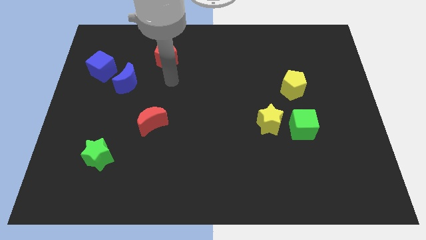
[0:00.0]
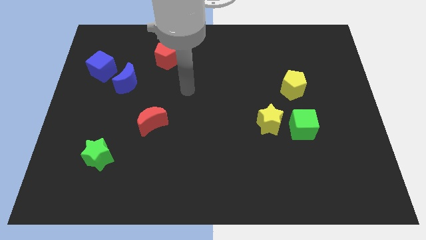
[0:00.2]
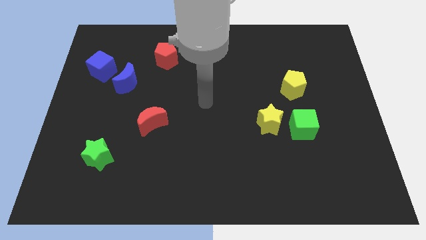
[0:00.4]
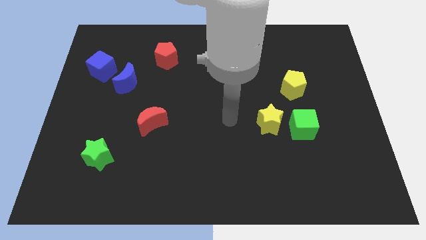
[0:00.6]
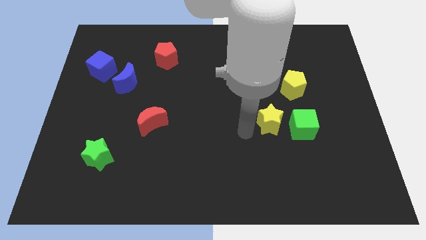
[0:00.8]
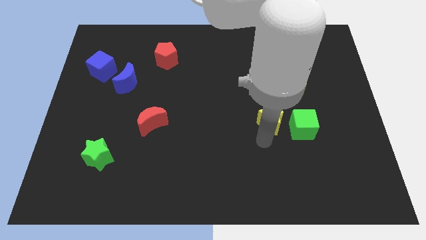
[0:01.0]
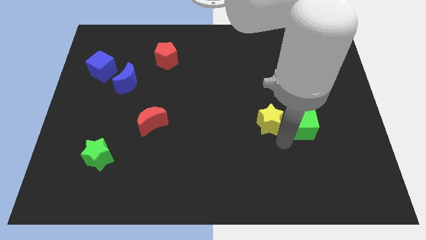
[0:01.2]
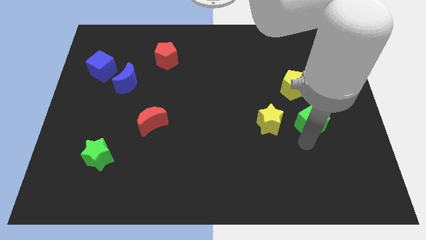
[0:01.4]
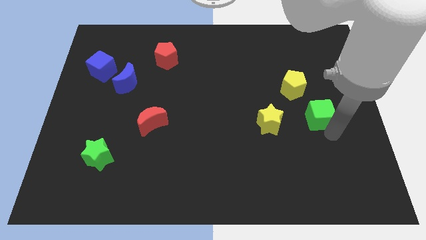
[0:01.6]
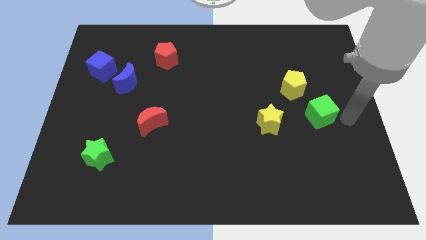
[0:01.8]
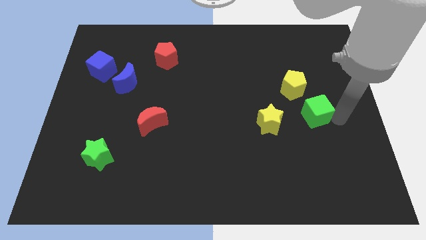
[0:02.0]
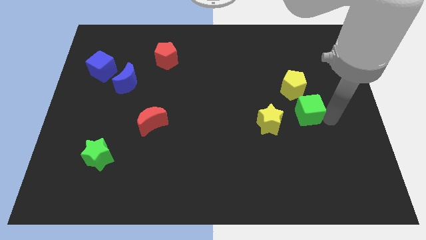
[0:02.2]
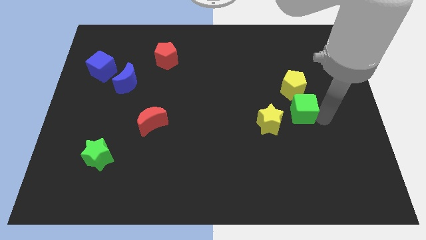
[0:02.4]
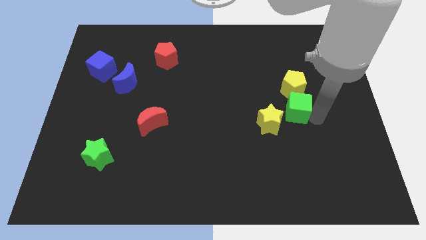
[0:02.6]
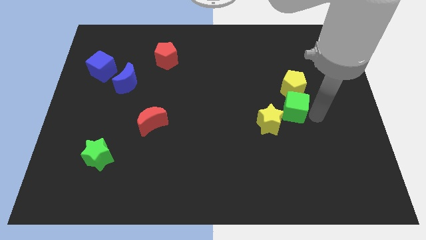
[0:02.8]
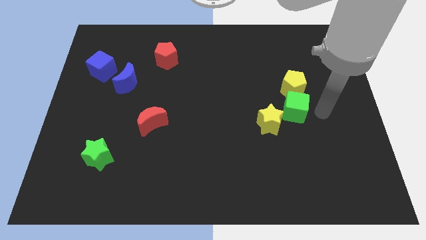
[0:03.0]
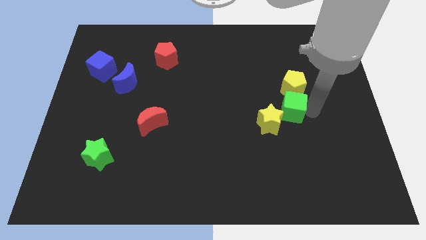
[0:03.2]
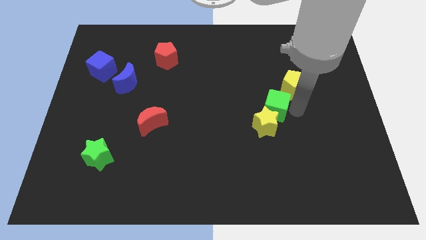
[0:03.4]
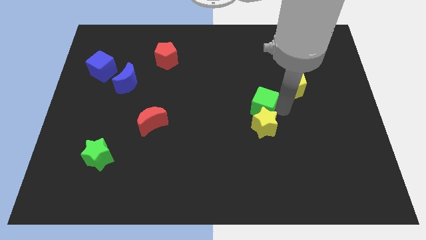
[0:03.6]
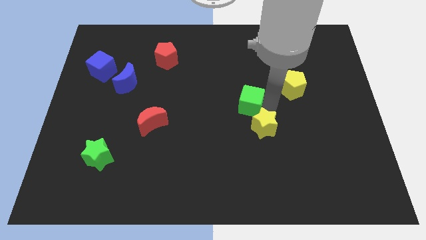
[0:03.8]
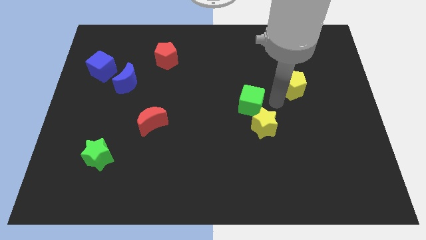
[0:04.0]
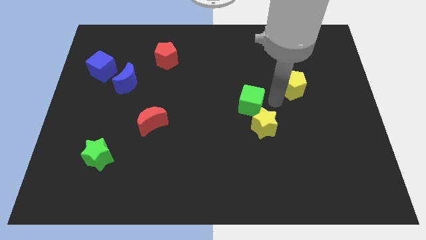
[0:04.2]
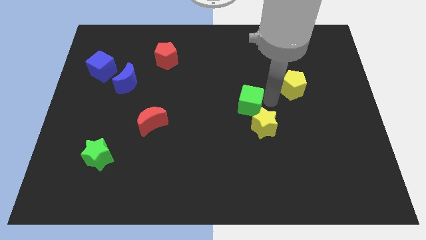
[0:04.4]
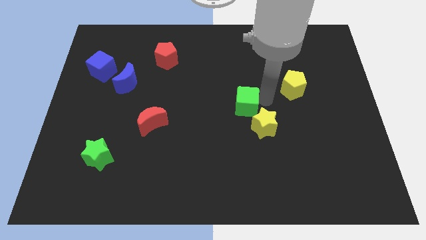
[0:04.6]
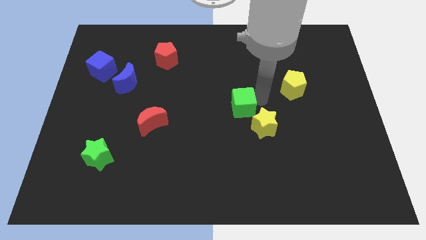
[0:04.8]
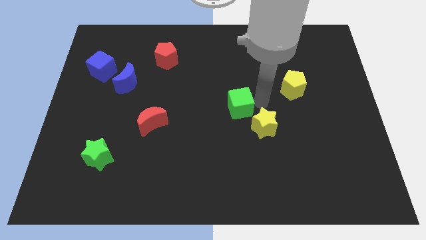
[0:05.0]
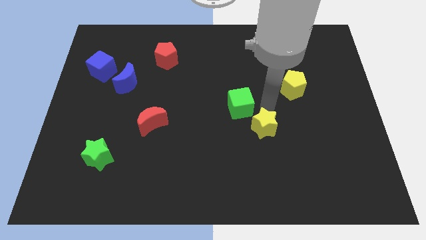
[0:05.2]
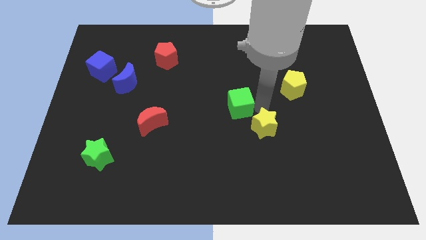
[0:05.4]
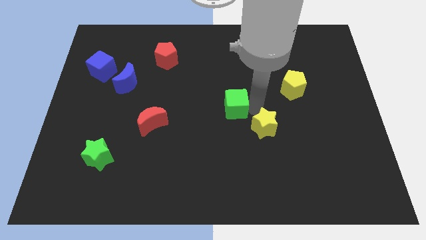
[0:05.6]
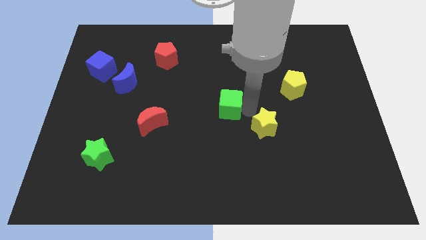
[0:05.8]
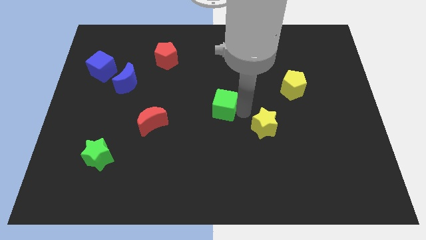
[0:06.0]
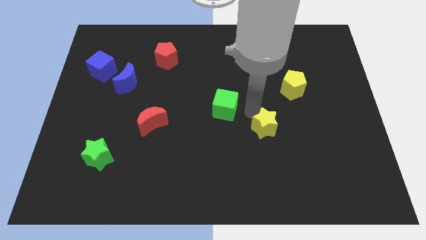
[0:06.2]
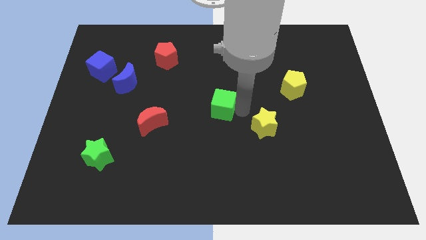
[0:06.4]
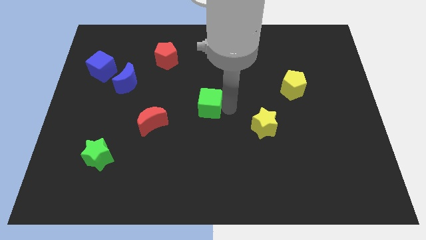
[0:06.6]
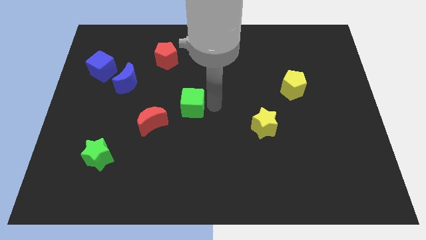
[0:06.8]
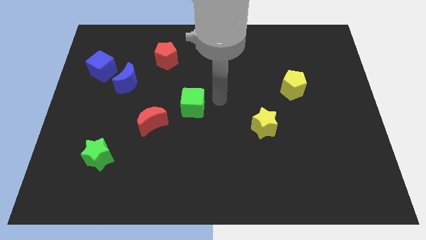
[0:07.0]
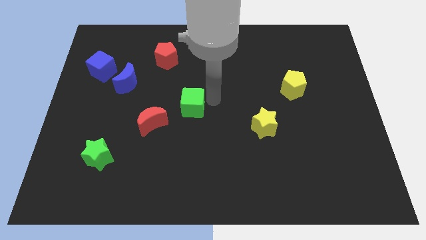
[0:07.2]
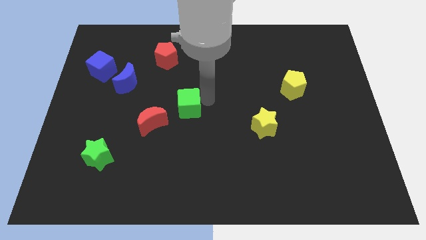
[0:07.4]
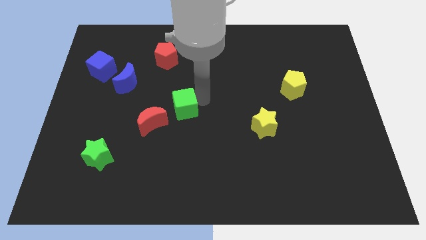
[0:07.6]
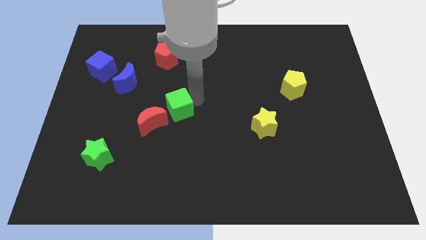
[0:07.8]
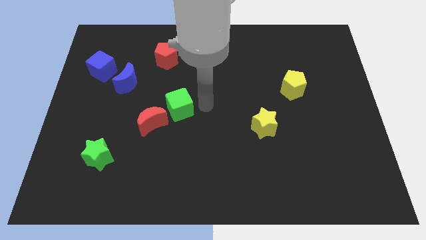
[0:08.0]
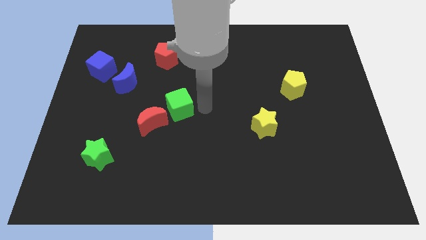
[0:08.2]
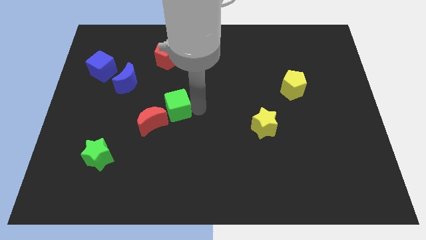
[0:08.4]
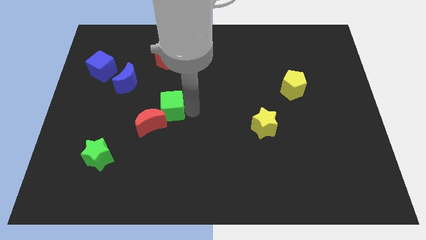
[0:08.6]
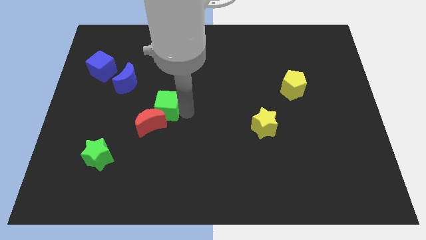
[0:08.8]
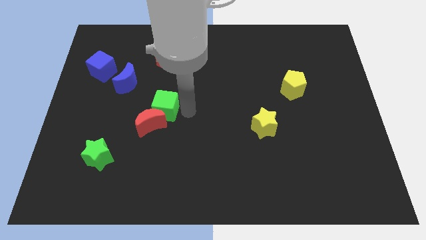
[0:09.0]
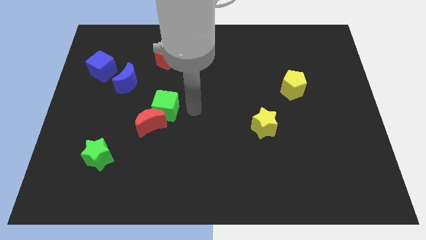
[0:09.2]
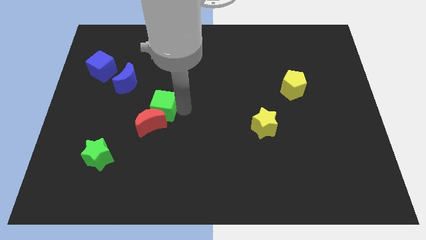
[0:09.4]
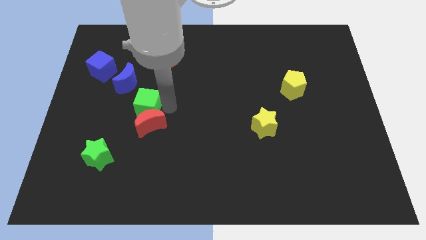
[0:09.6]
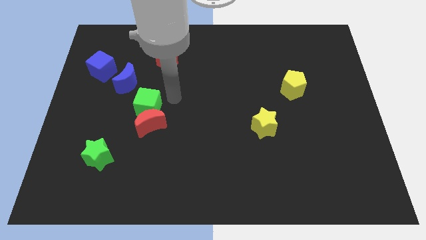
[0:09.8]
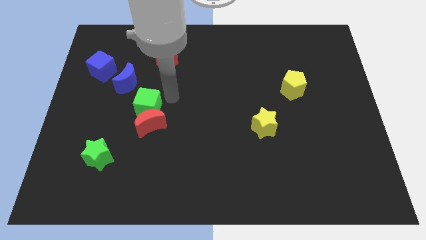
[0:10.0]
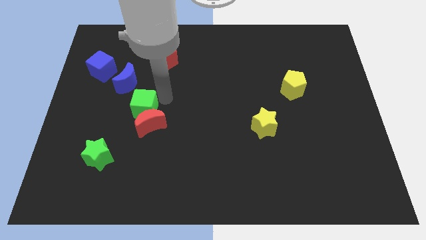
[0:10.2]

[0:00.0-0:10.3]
push the green cube below the blue moon

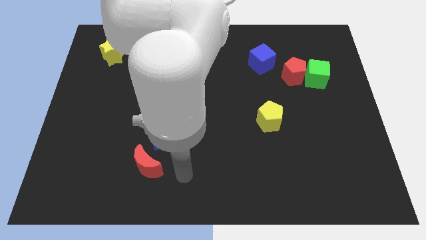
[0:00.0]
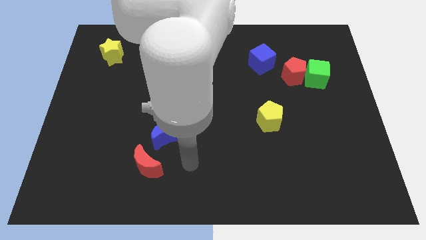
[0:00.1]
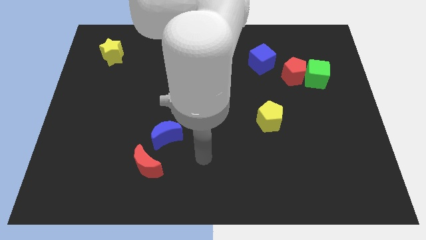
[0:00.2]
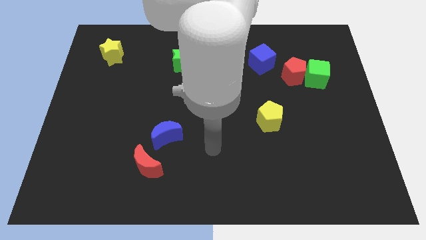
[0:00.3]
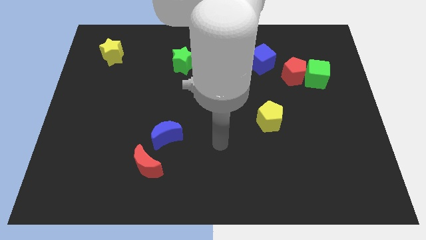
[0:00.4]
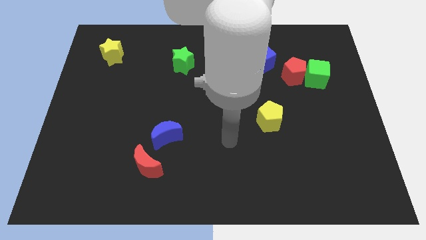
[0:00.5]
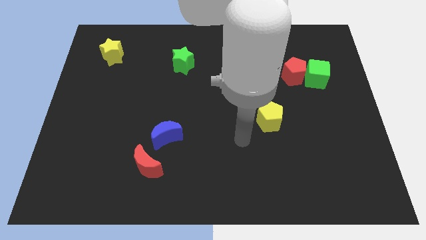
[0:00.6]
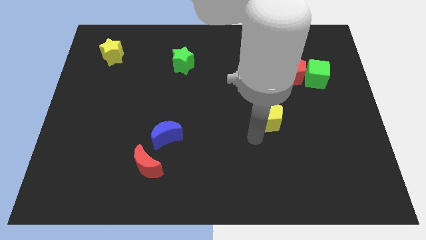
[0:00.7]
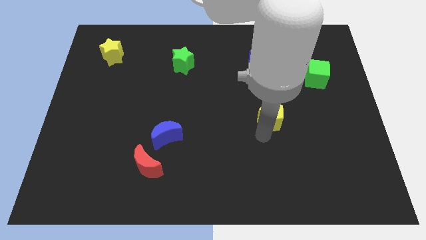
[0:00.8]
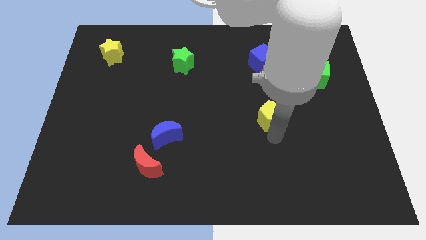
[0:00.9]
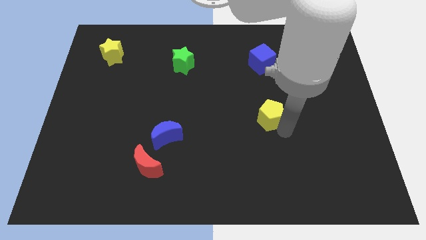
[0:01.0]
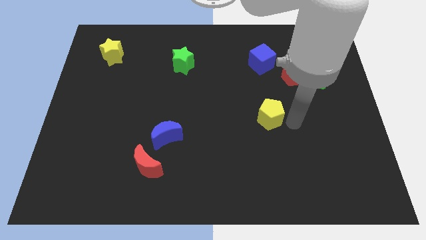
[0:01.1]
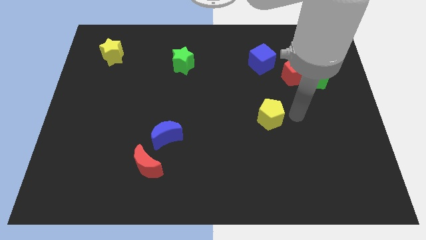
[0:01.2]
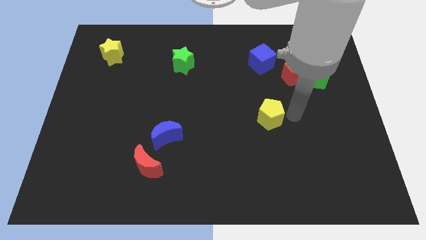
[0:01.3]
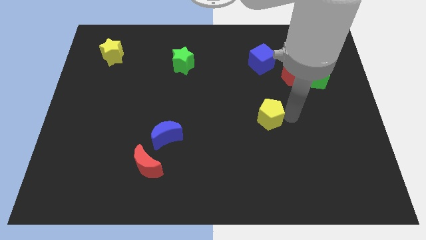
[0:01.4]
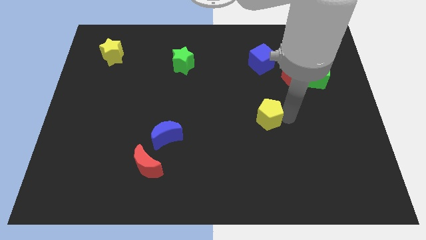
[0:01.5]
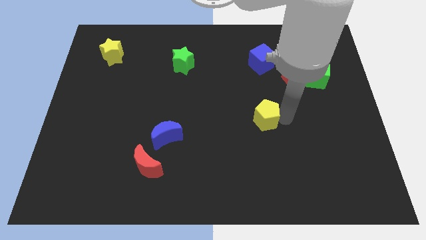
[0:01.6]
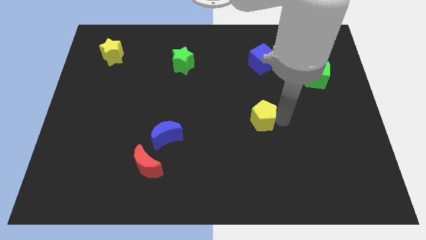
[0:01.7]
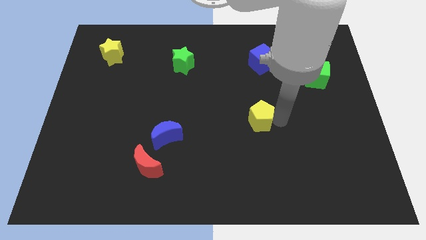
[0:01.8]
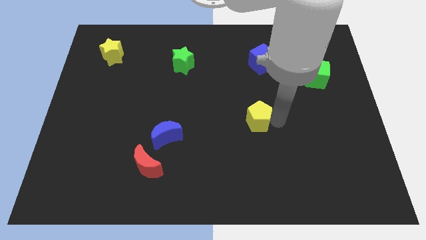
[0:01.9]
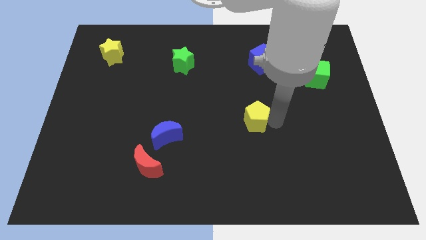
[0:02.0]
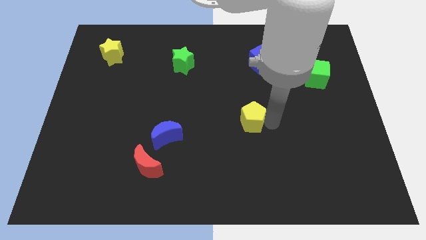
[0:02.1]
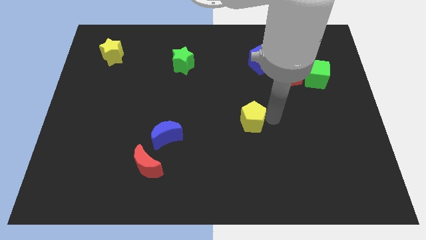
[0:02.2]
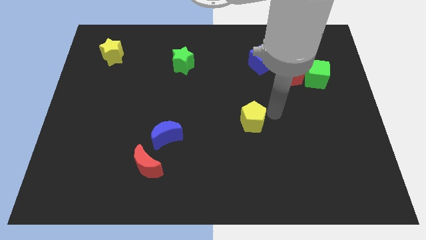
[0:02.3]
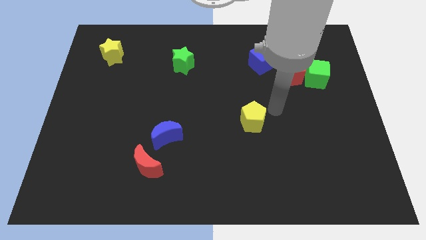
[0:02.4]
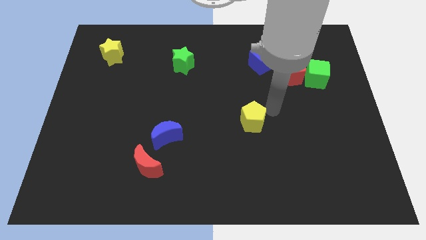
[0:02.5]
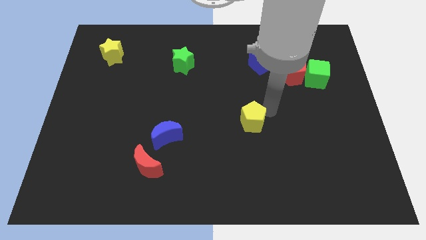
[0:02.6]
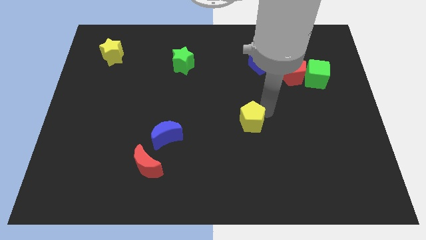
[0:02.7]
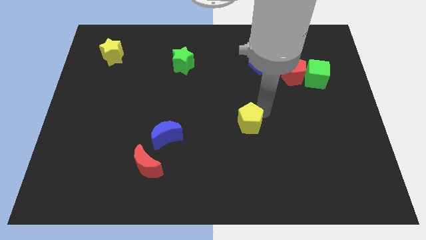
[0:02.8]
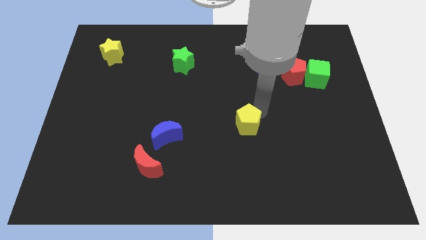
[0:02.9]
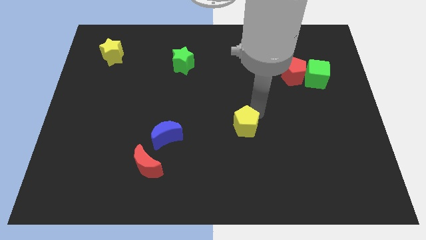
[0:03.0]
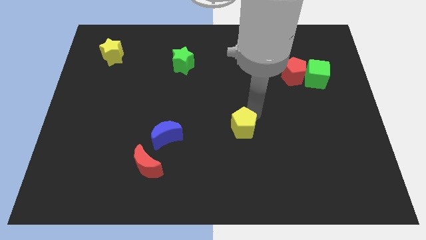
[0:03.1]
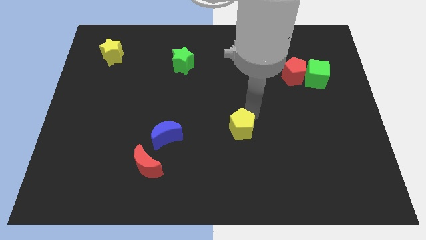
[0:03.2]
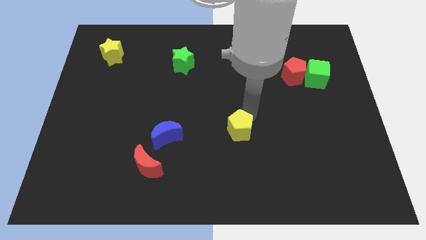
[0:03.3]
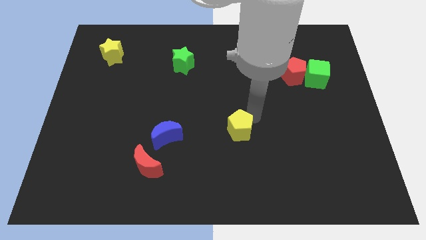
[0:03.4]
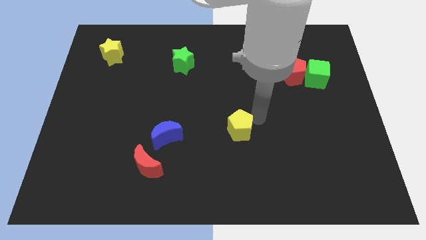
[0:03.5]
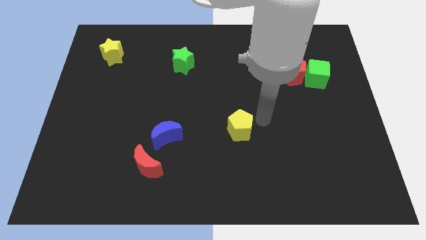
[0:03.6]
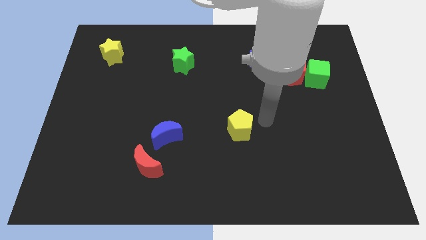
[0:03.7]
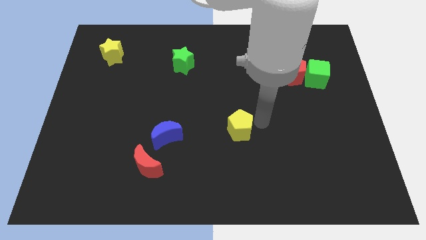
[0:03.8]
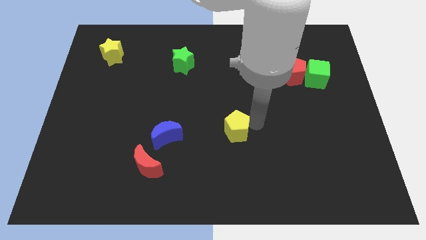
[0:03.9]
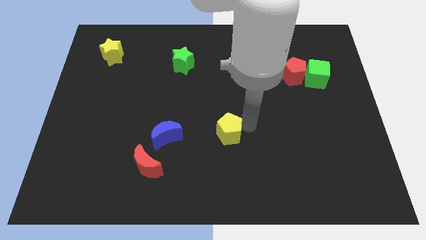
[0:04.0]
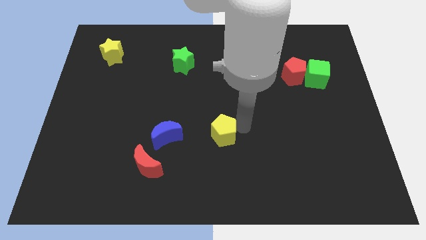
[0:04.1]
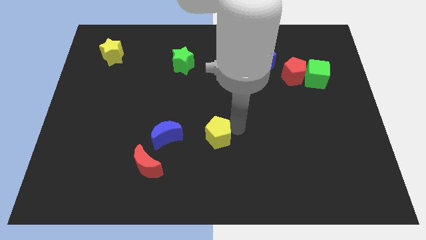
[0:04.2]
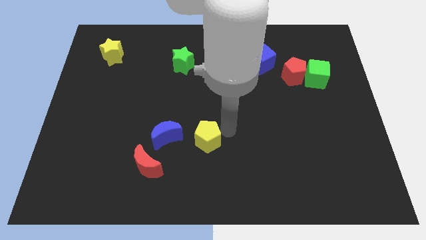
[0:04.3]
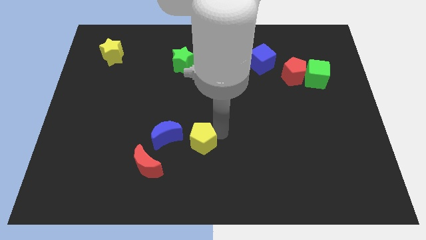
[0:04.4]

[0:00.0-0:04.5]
put the yellow pentagon to the bottom right side of the blue moon
